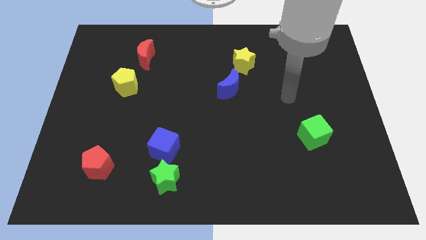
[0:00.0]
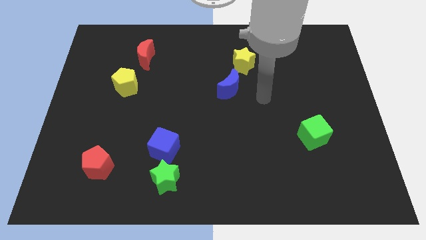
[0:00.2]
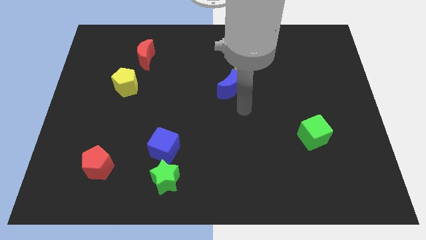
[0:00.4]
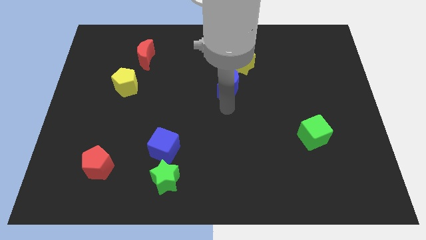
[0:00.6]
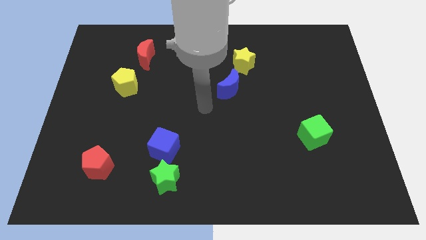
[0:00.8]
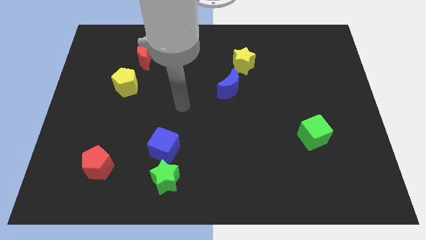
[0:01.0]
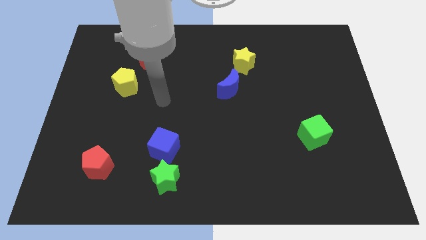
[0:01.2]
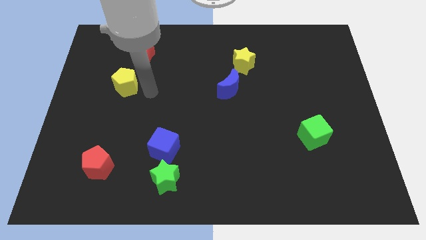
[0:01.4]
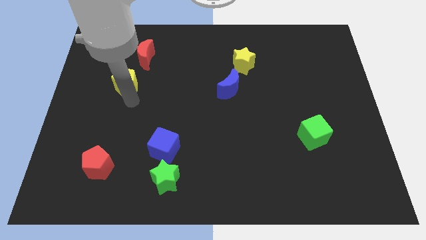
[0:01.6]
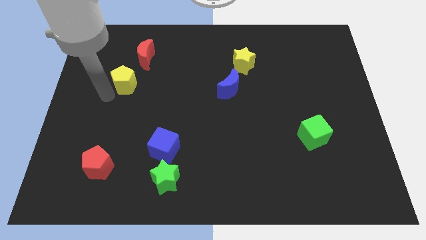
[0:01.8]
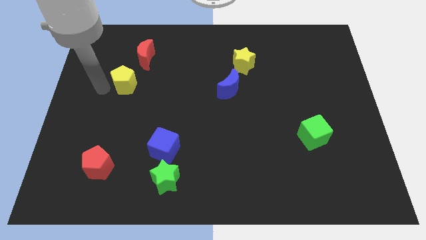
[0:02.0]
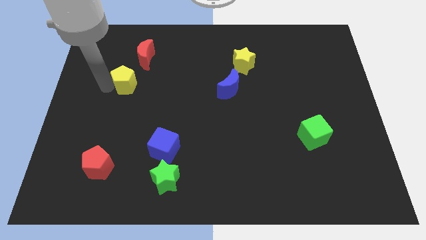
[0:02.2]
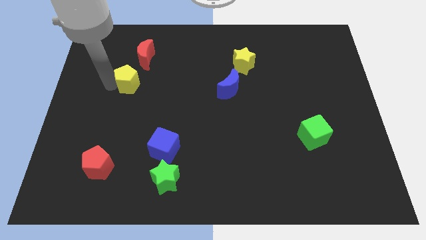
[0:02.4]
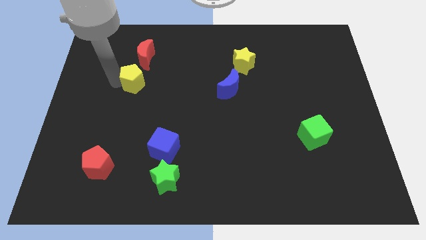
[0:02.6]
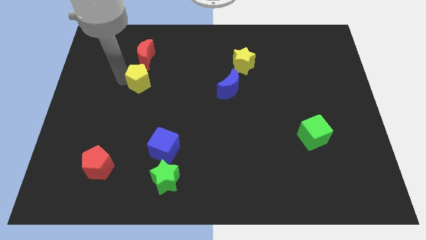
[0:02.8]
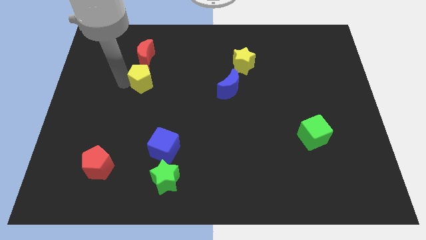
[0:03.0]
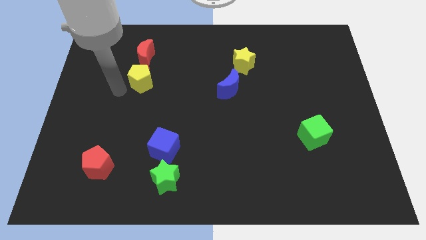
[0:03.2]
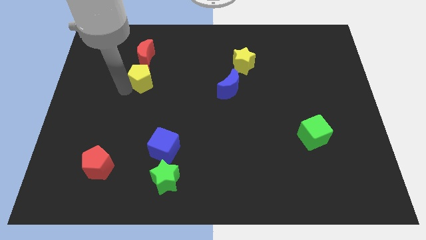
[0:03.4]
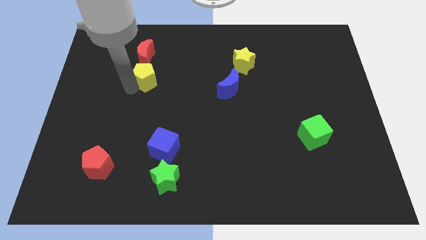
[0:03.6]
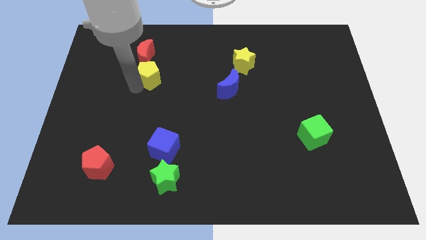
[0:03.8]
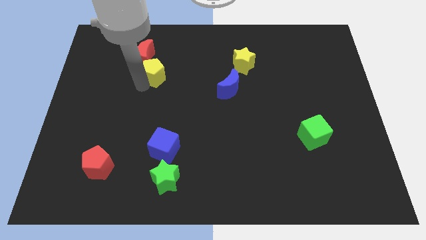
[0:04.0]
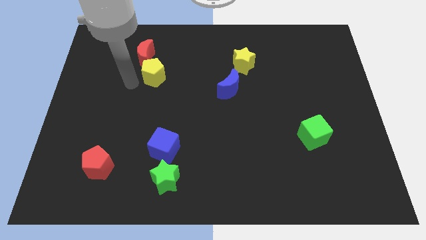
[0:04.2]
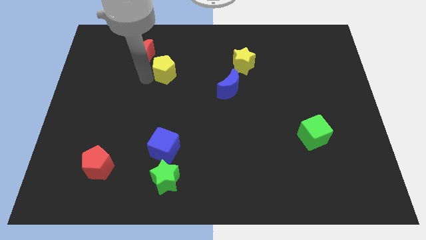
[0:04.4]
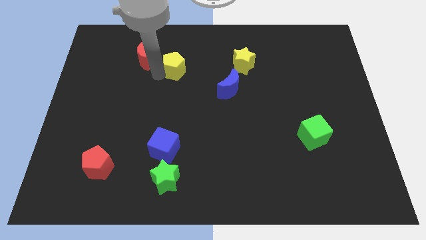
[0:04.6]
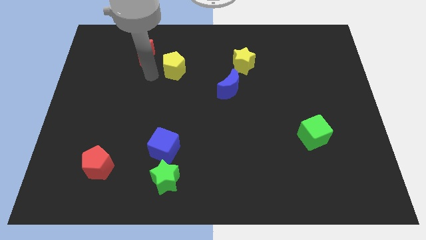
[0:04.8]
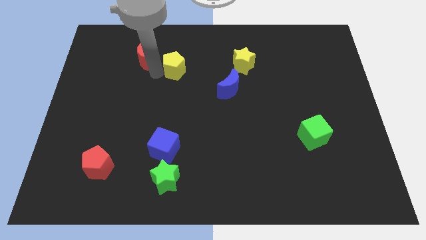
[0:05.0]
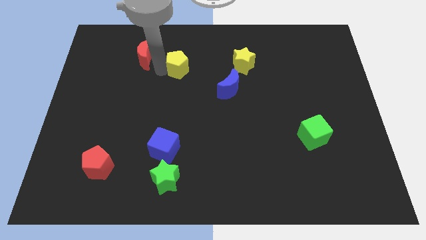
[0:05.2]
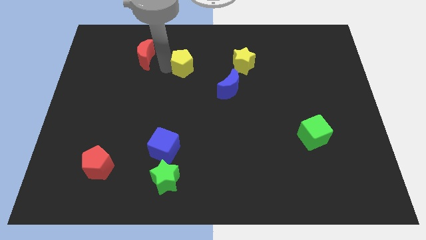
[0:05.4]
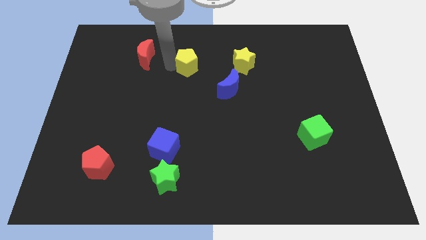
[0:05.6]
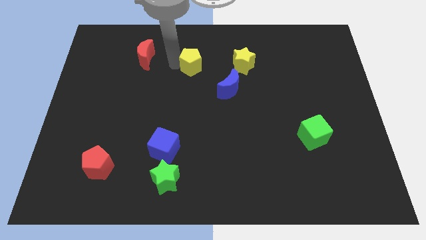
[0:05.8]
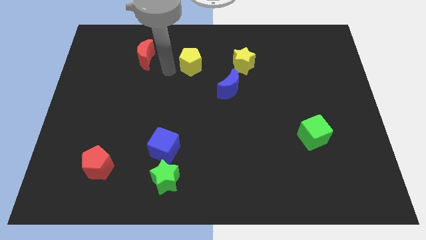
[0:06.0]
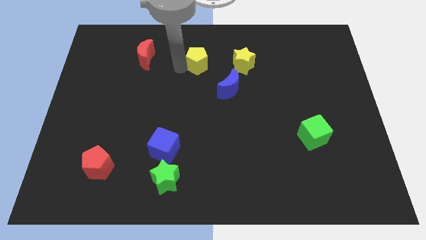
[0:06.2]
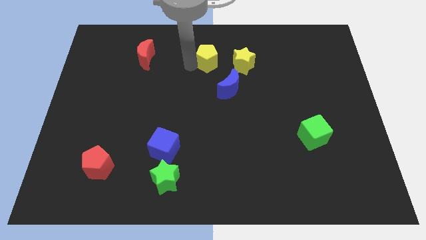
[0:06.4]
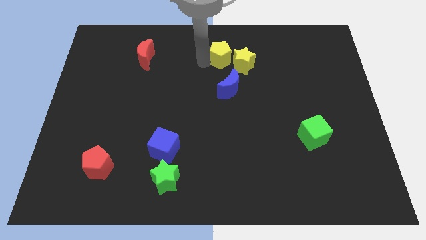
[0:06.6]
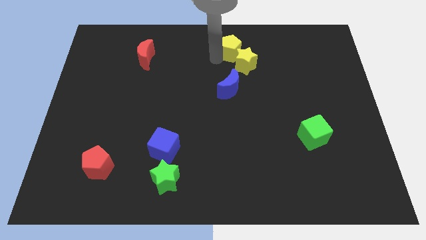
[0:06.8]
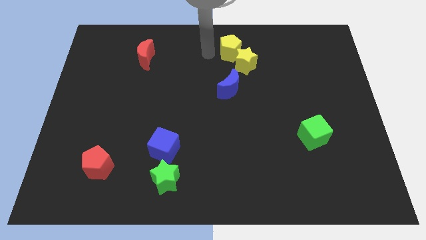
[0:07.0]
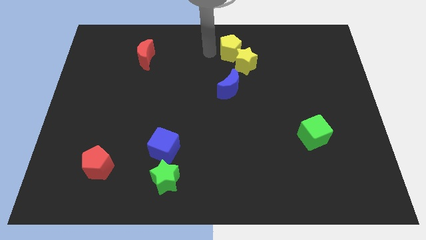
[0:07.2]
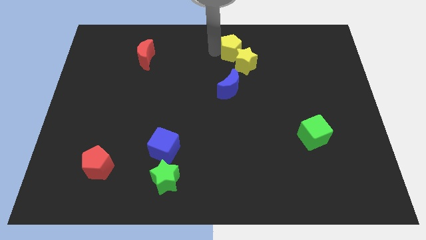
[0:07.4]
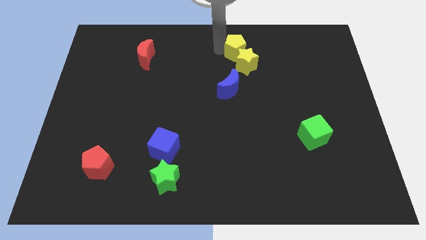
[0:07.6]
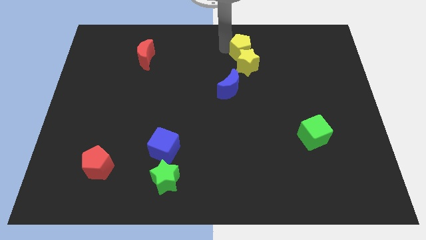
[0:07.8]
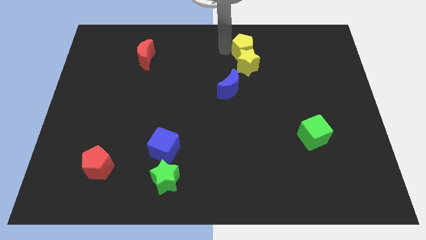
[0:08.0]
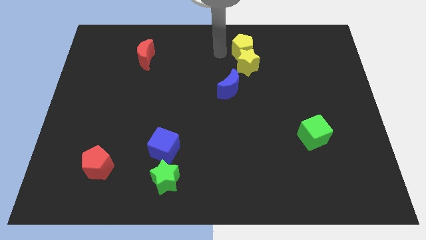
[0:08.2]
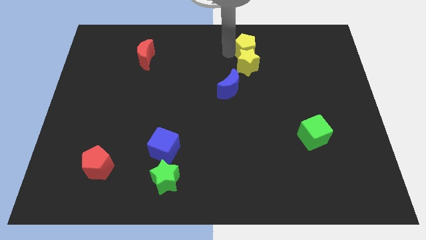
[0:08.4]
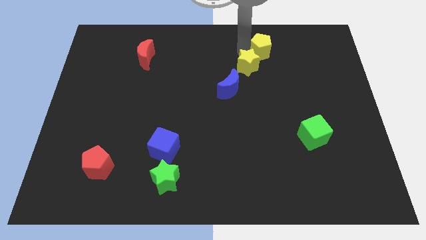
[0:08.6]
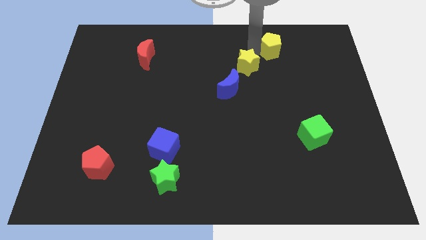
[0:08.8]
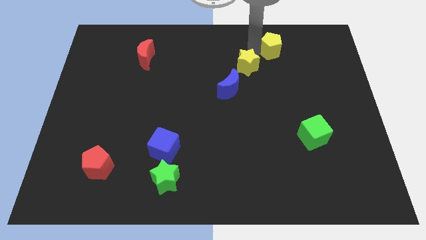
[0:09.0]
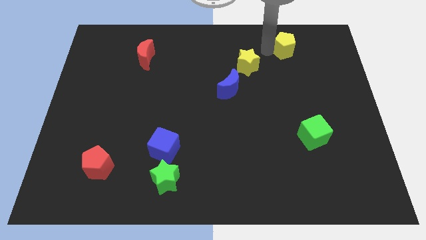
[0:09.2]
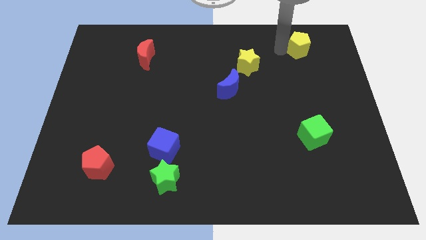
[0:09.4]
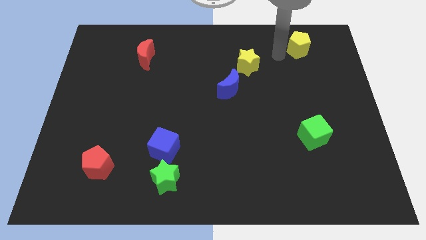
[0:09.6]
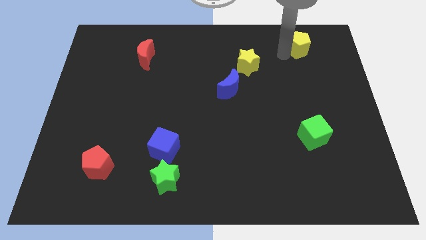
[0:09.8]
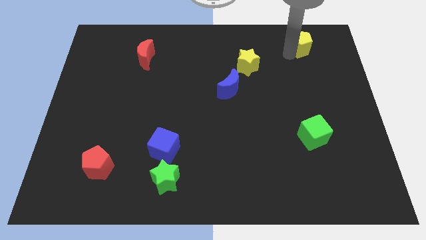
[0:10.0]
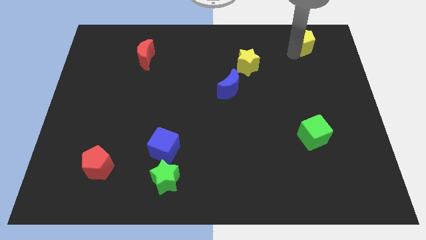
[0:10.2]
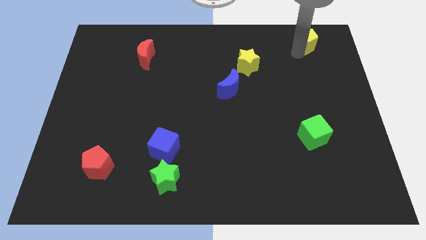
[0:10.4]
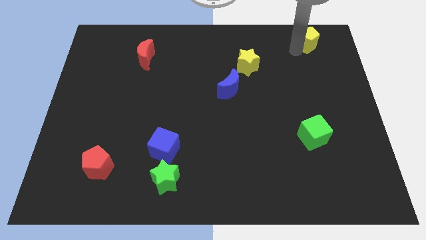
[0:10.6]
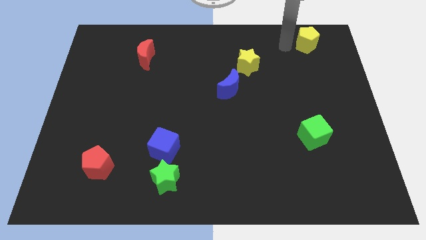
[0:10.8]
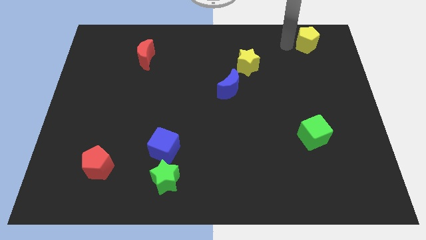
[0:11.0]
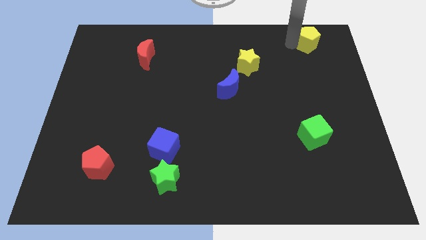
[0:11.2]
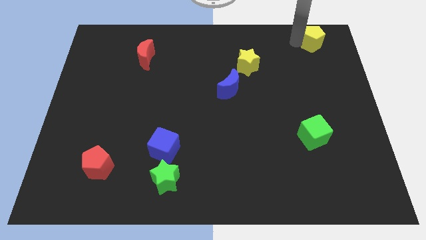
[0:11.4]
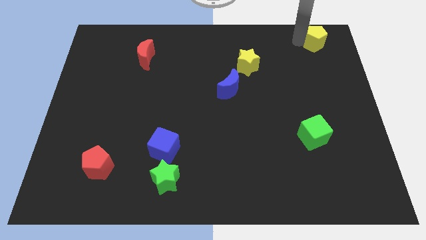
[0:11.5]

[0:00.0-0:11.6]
move the yellow pentagon to the top right of the board

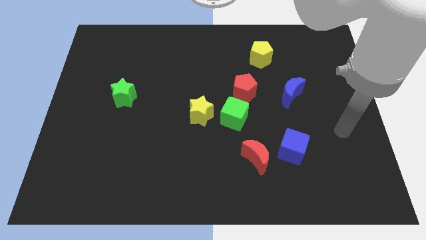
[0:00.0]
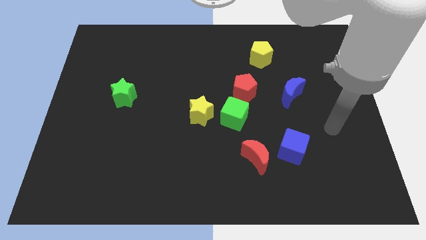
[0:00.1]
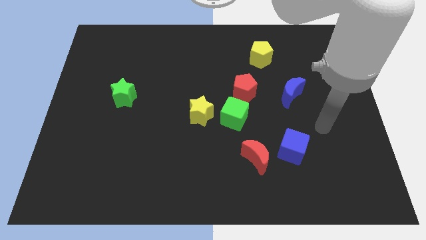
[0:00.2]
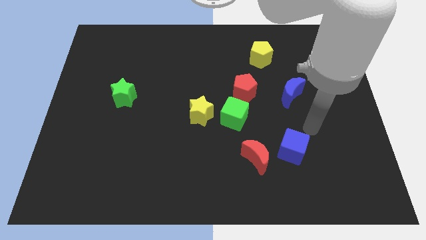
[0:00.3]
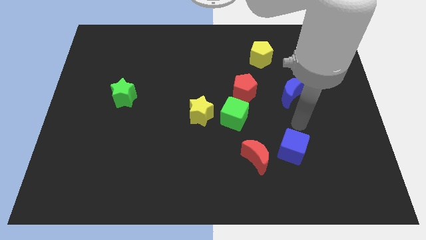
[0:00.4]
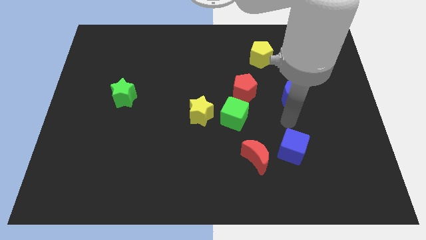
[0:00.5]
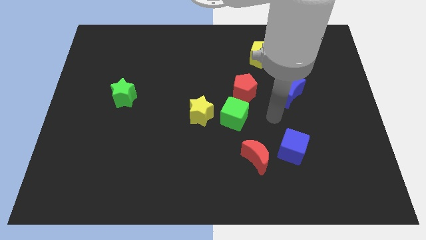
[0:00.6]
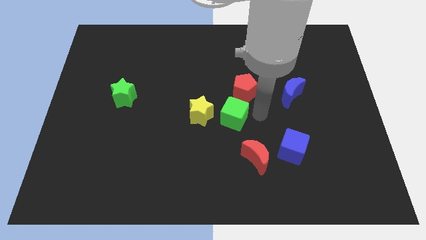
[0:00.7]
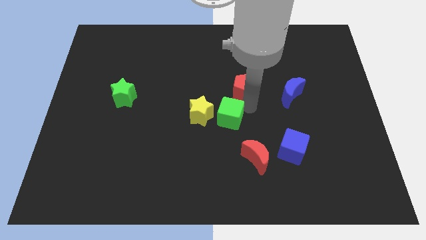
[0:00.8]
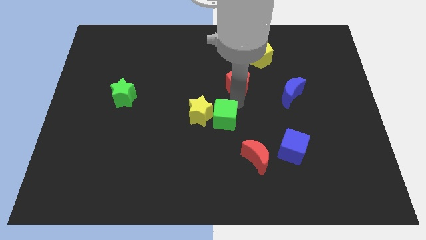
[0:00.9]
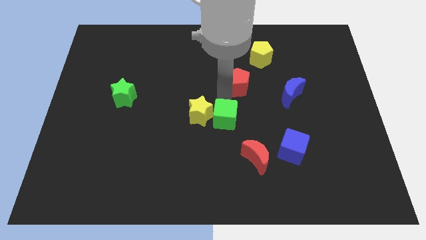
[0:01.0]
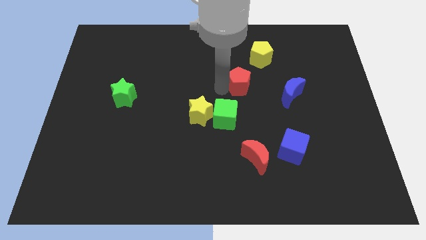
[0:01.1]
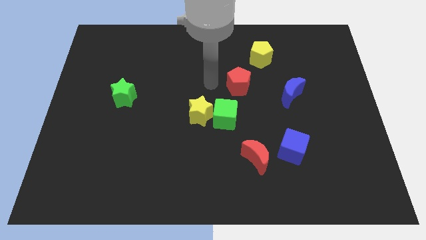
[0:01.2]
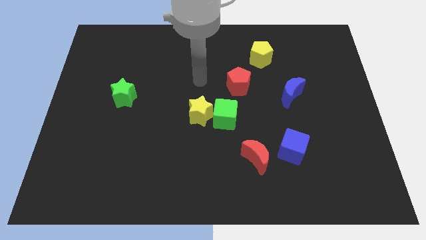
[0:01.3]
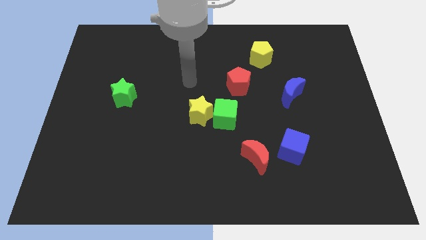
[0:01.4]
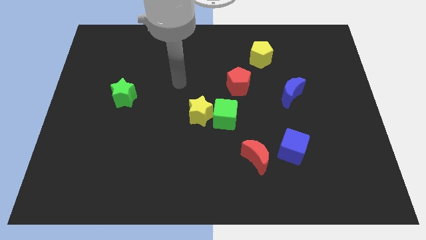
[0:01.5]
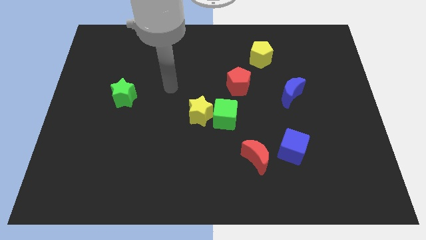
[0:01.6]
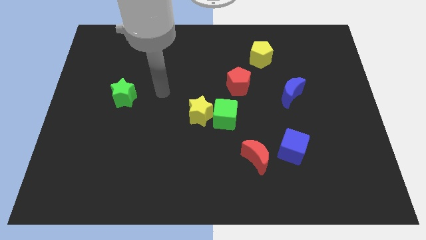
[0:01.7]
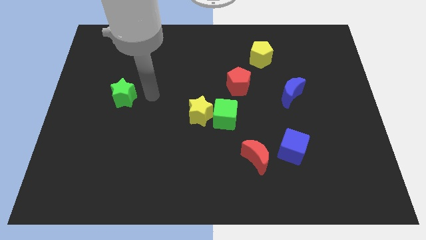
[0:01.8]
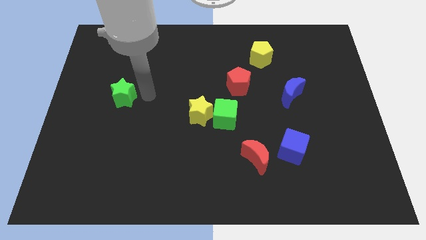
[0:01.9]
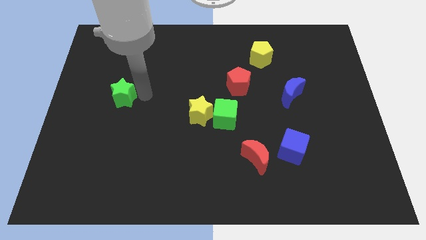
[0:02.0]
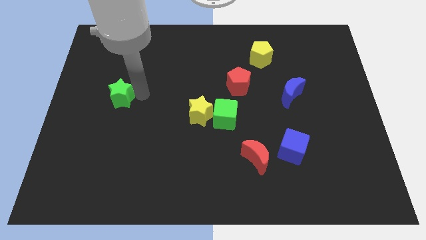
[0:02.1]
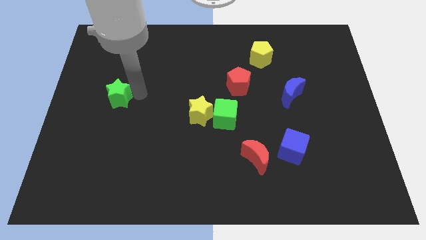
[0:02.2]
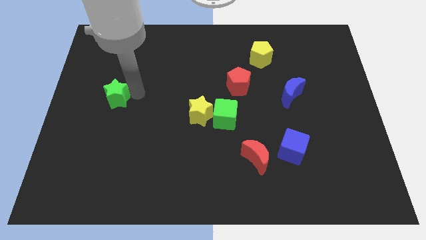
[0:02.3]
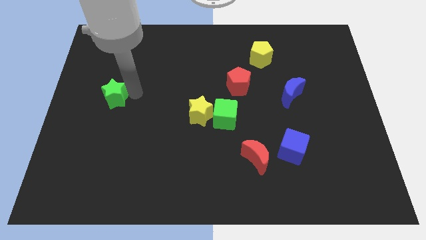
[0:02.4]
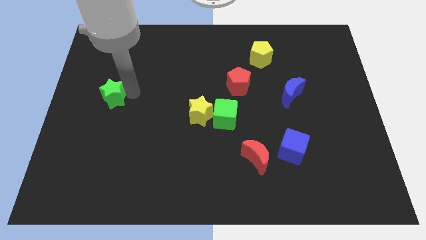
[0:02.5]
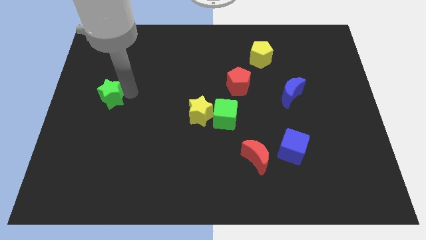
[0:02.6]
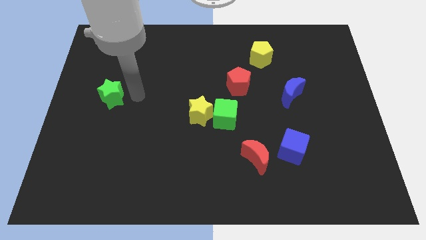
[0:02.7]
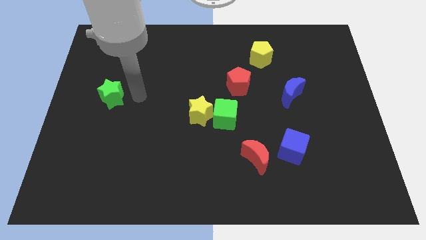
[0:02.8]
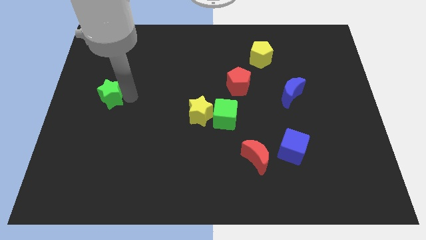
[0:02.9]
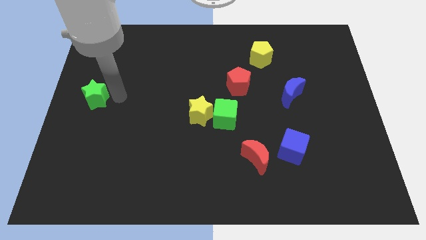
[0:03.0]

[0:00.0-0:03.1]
push the green star to the center left
